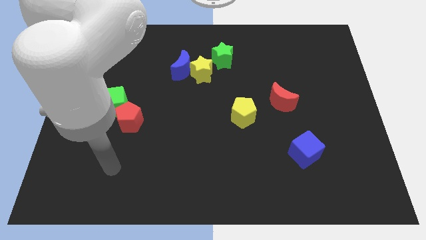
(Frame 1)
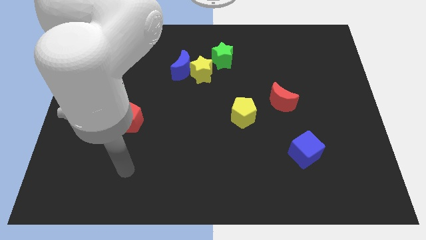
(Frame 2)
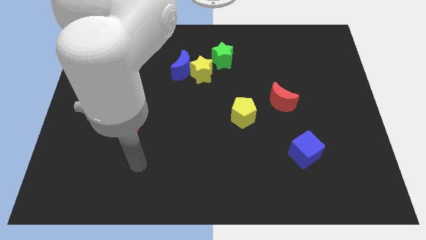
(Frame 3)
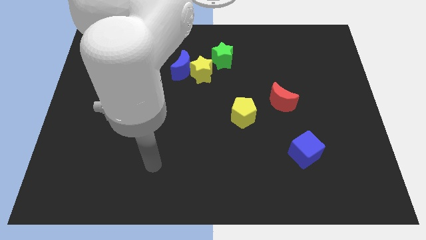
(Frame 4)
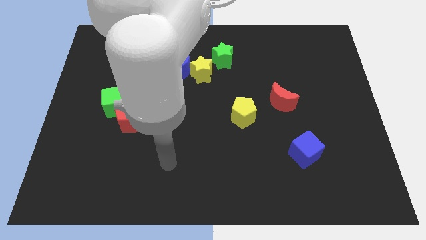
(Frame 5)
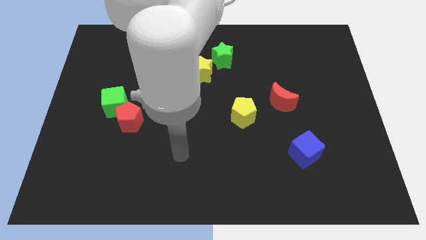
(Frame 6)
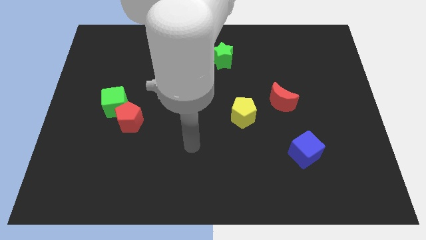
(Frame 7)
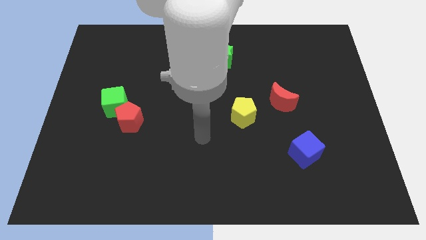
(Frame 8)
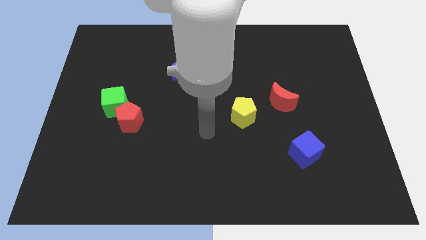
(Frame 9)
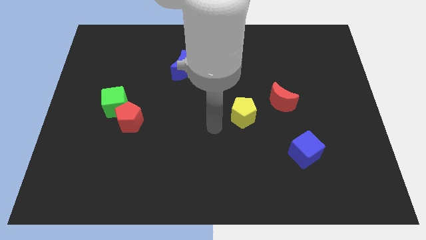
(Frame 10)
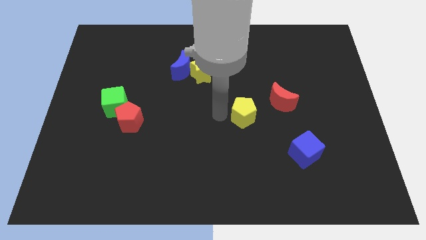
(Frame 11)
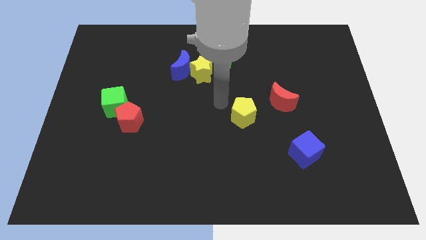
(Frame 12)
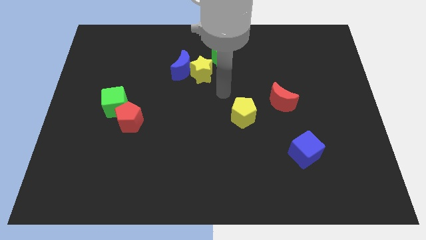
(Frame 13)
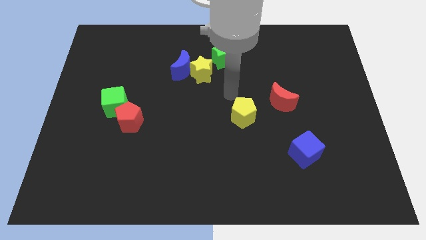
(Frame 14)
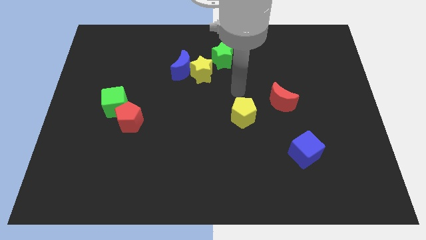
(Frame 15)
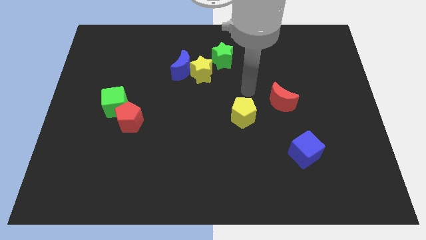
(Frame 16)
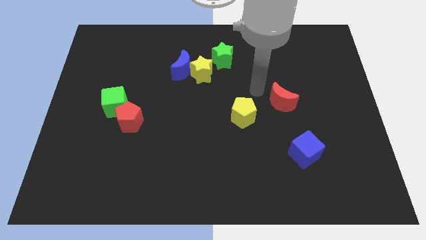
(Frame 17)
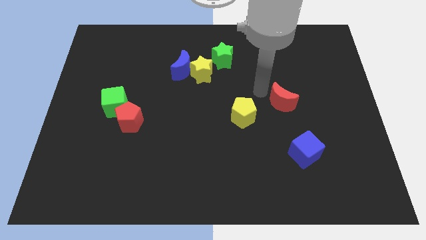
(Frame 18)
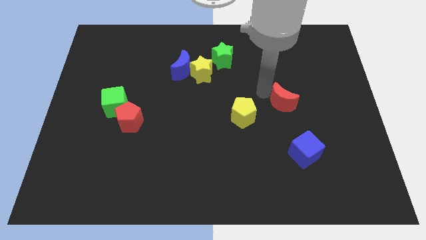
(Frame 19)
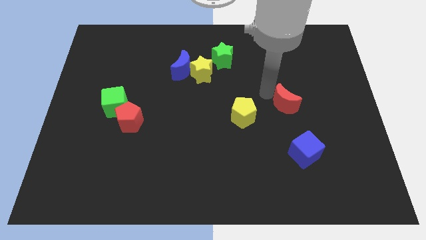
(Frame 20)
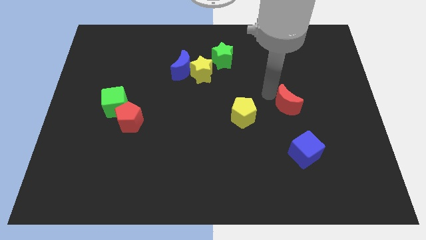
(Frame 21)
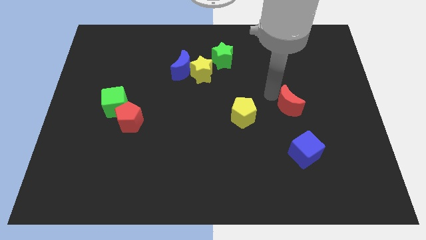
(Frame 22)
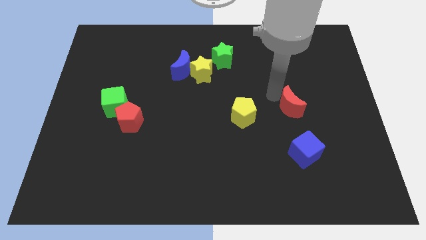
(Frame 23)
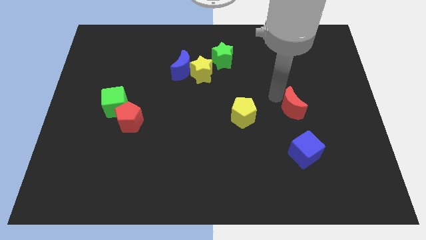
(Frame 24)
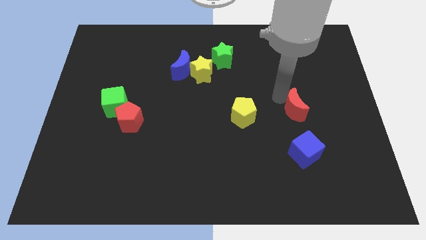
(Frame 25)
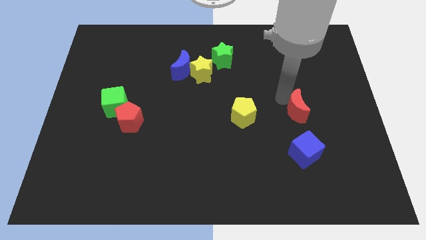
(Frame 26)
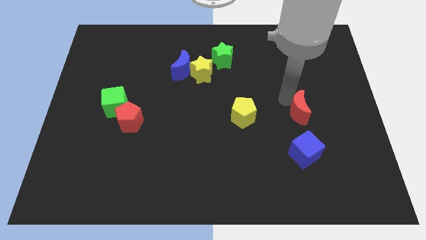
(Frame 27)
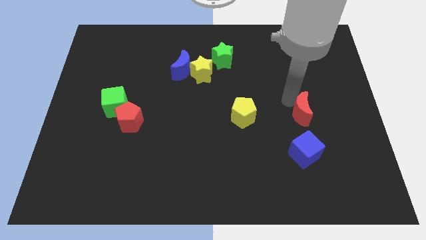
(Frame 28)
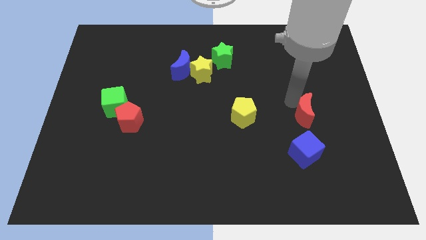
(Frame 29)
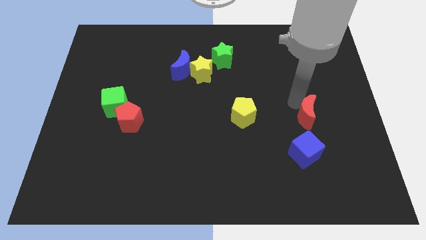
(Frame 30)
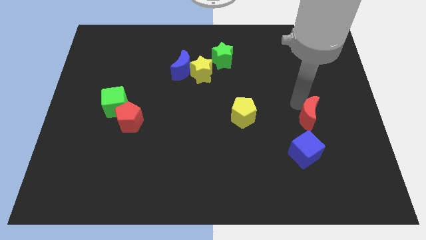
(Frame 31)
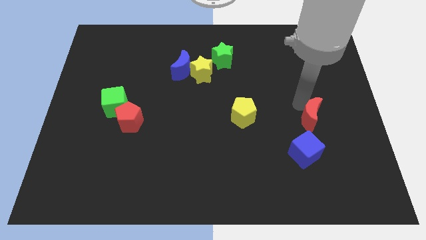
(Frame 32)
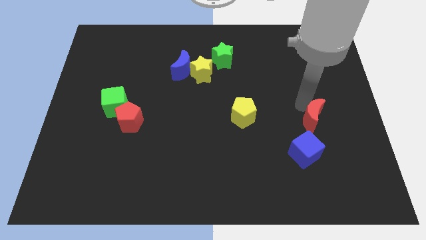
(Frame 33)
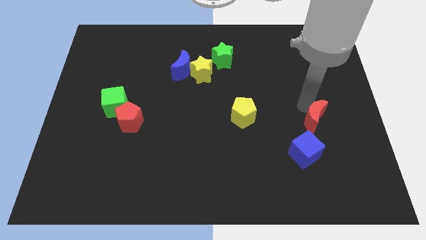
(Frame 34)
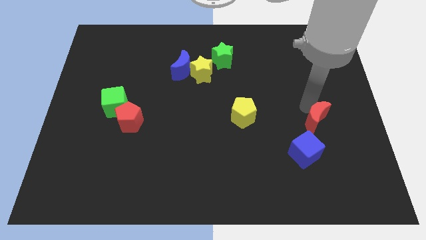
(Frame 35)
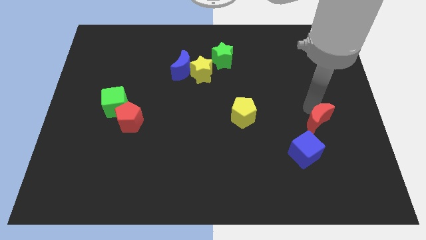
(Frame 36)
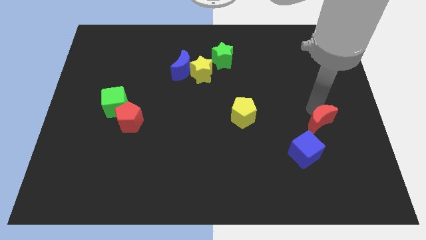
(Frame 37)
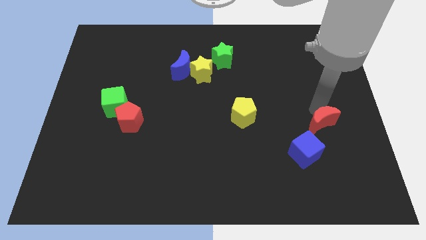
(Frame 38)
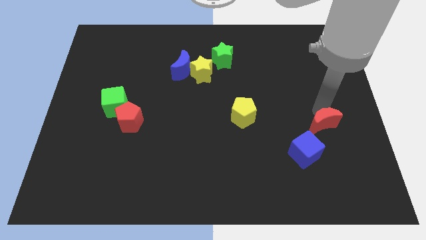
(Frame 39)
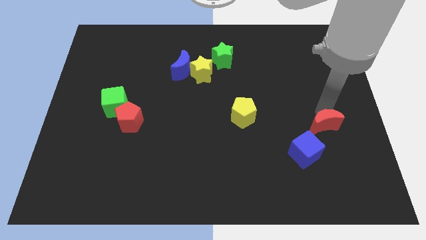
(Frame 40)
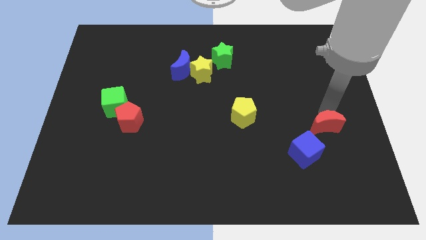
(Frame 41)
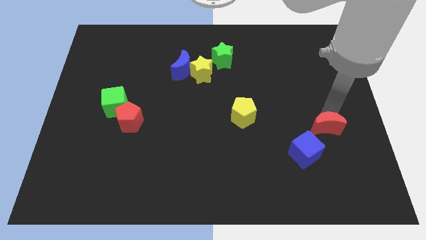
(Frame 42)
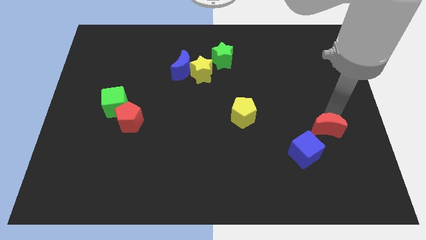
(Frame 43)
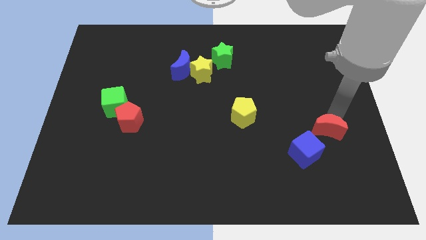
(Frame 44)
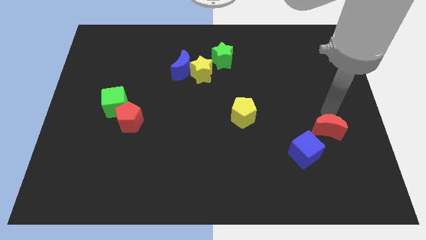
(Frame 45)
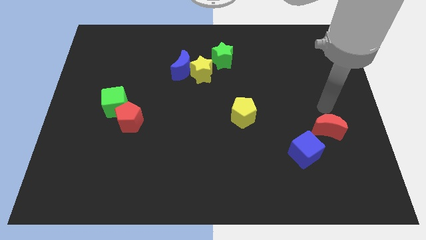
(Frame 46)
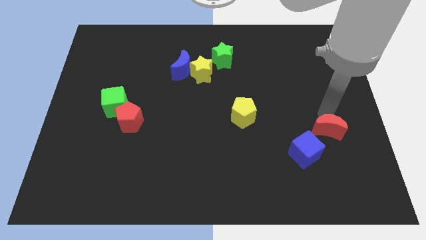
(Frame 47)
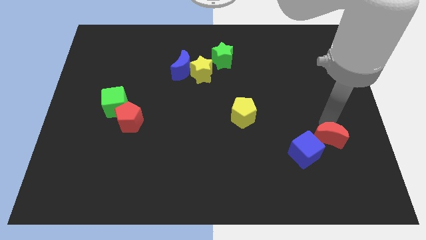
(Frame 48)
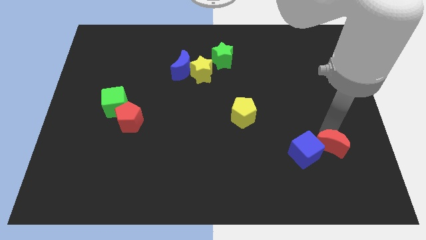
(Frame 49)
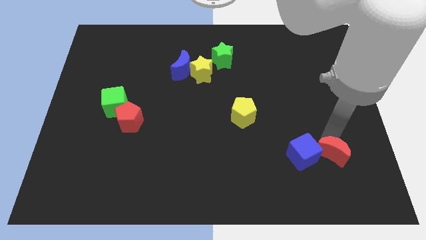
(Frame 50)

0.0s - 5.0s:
put the red moon to the bottom right side of the blue cube

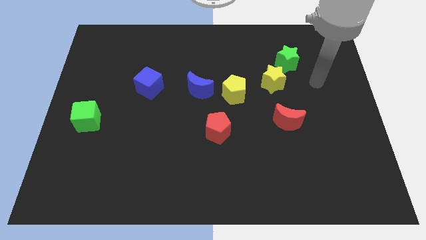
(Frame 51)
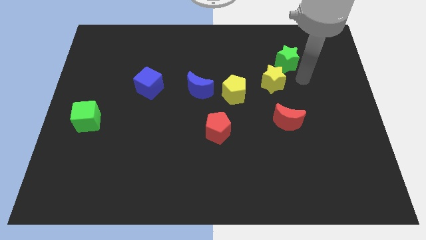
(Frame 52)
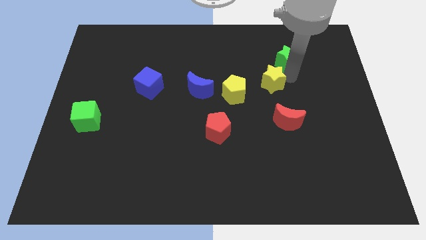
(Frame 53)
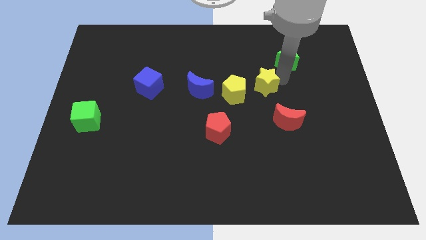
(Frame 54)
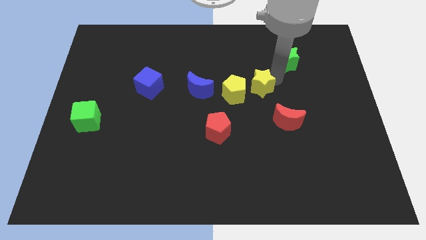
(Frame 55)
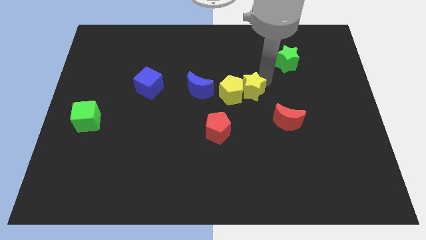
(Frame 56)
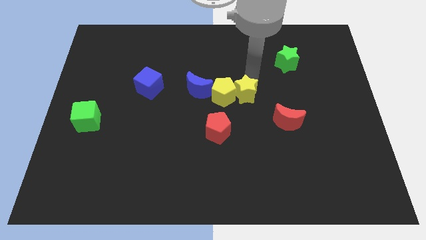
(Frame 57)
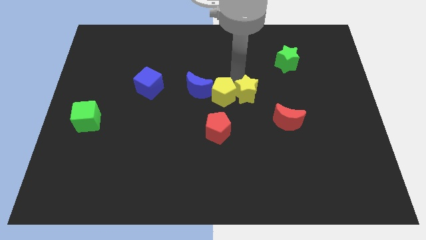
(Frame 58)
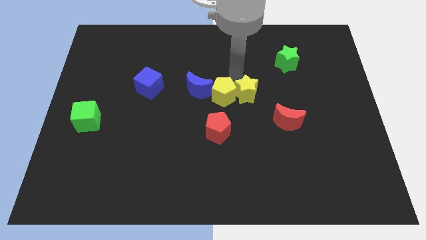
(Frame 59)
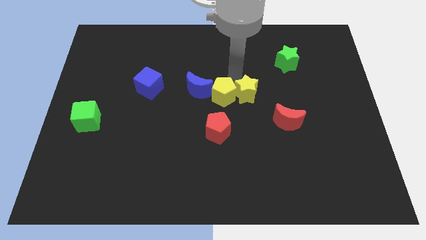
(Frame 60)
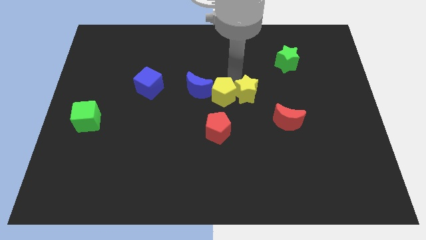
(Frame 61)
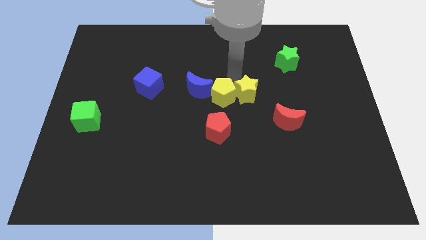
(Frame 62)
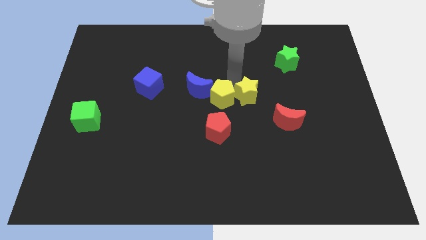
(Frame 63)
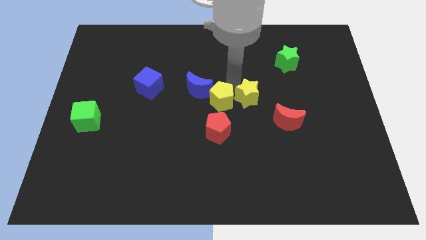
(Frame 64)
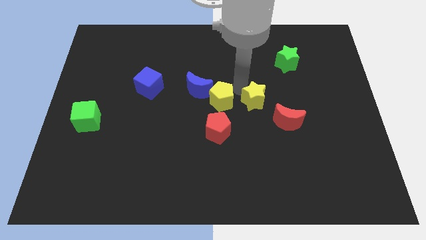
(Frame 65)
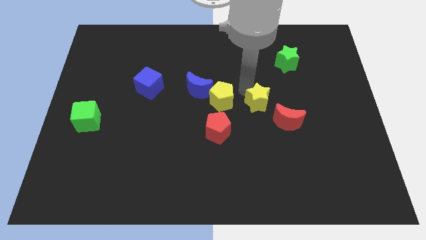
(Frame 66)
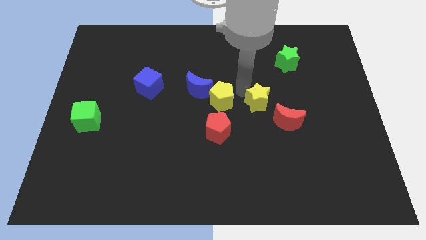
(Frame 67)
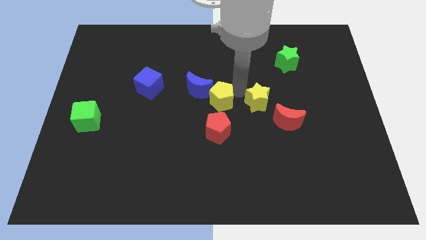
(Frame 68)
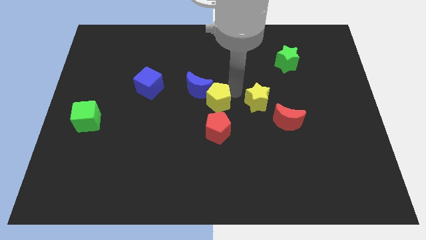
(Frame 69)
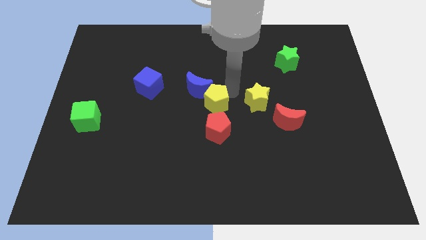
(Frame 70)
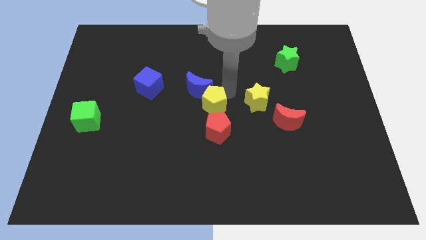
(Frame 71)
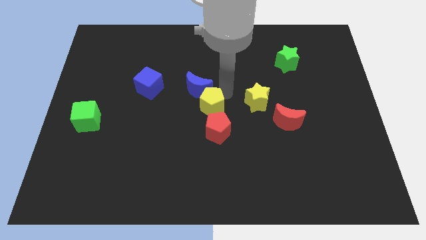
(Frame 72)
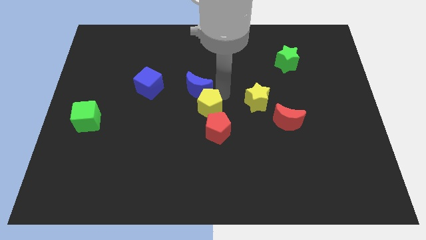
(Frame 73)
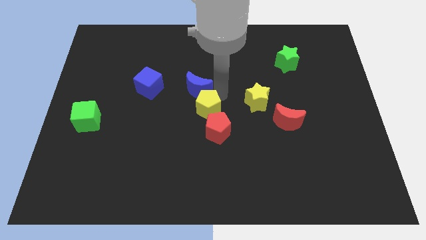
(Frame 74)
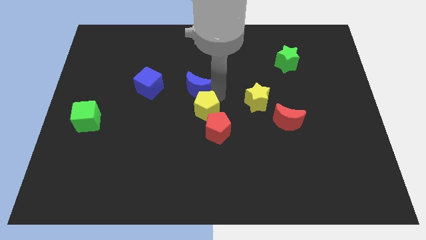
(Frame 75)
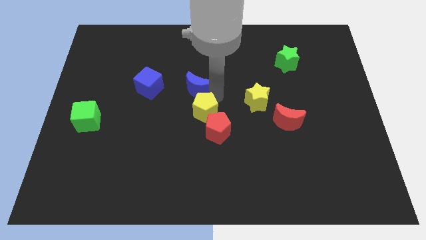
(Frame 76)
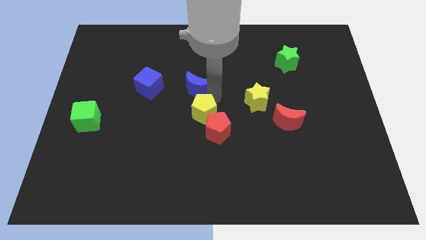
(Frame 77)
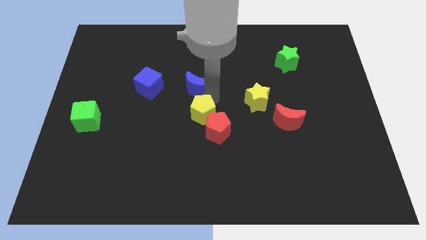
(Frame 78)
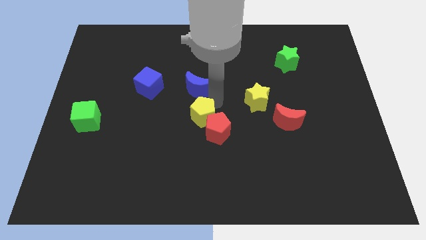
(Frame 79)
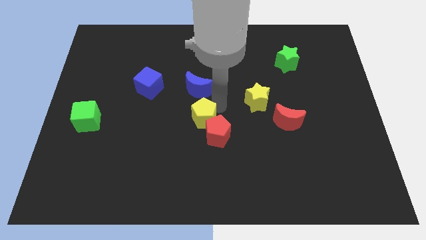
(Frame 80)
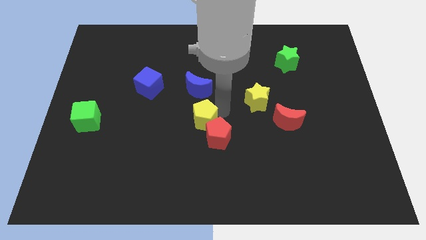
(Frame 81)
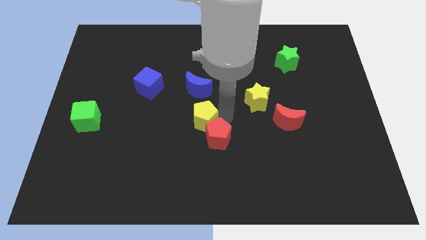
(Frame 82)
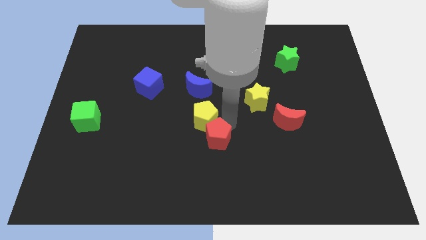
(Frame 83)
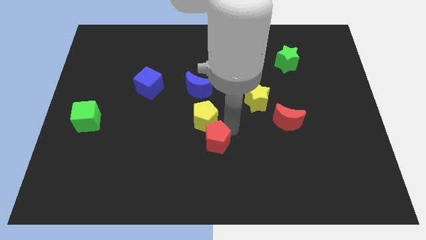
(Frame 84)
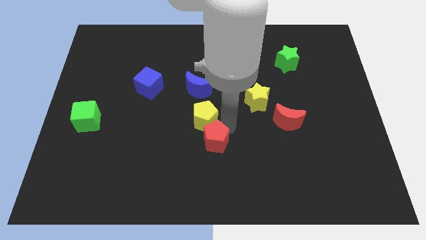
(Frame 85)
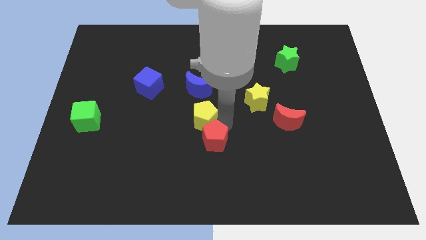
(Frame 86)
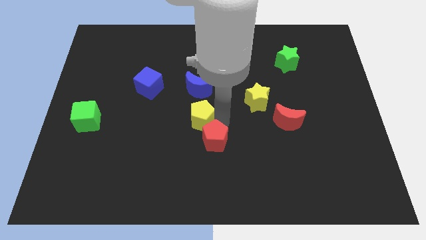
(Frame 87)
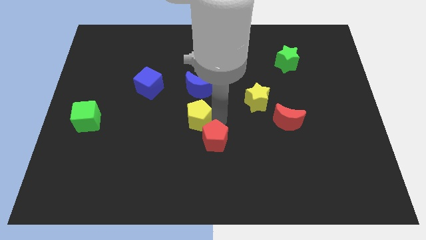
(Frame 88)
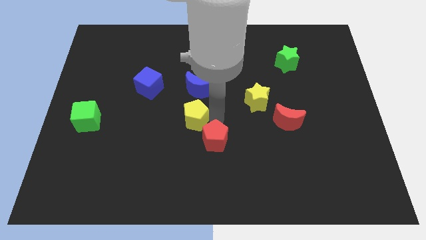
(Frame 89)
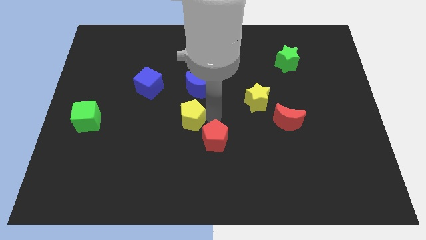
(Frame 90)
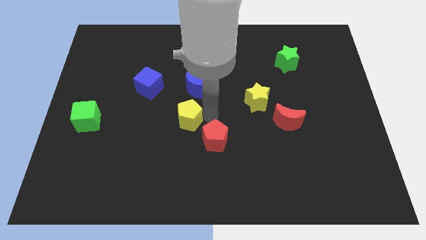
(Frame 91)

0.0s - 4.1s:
slide the yellow pentagon to the bottom left of the blue moon
